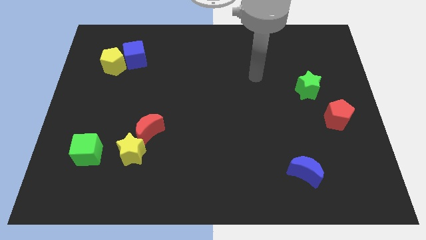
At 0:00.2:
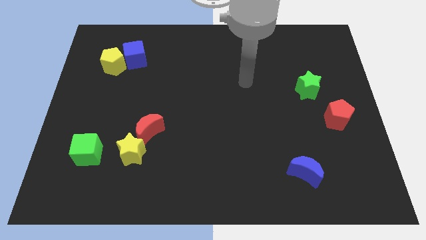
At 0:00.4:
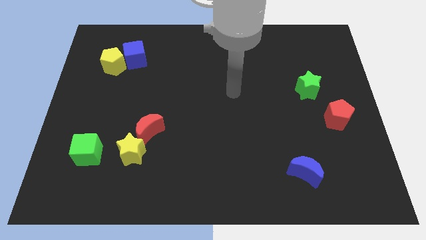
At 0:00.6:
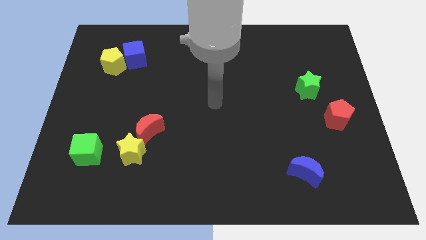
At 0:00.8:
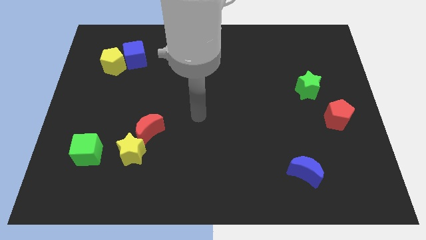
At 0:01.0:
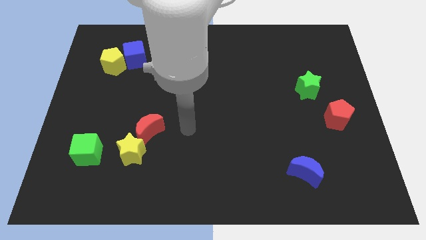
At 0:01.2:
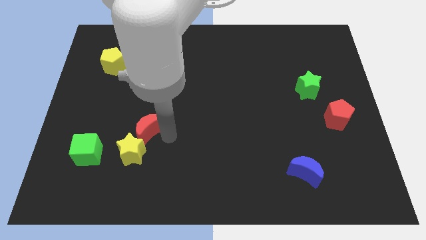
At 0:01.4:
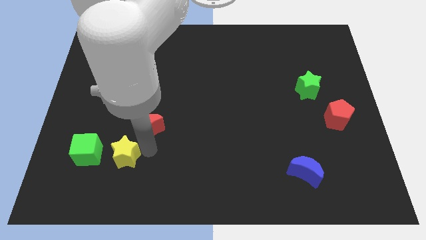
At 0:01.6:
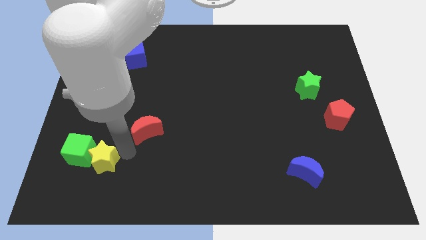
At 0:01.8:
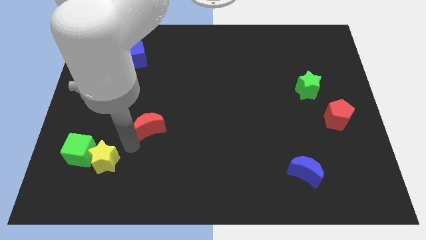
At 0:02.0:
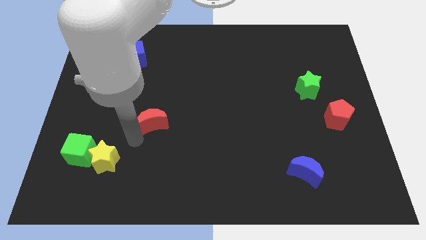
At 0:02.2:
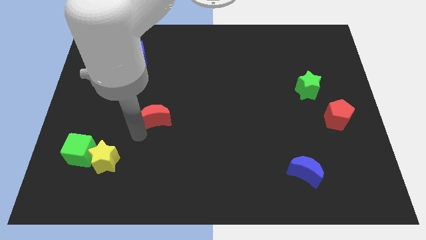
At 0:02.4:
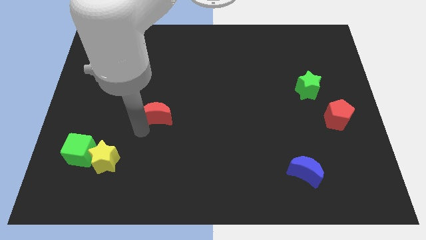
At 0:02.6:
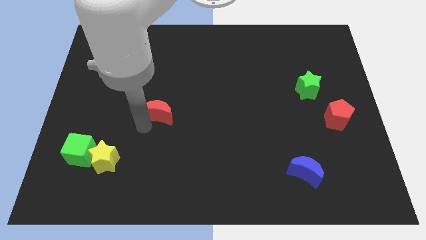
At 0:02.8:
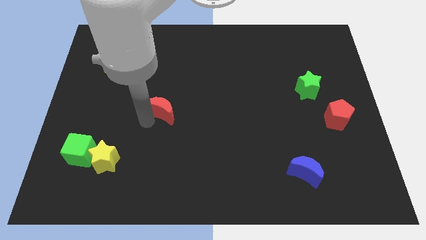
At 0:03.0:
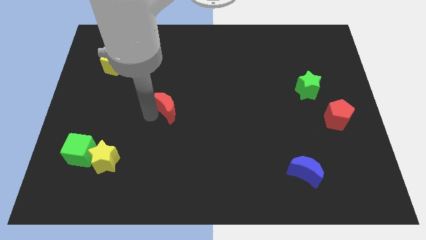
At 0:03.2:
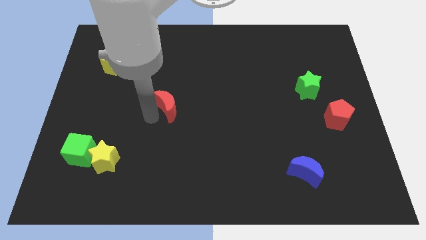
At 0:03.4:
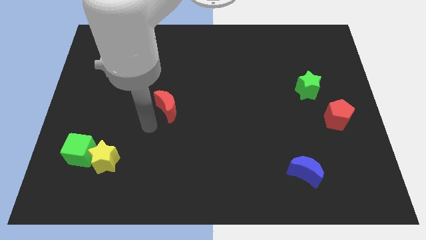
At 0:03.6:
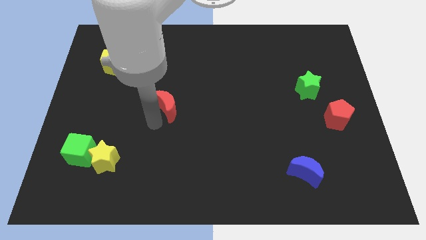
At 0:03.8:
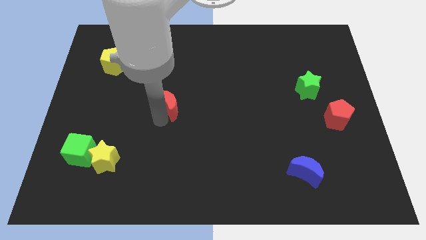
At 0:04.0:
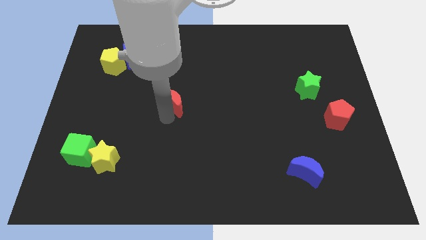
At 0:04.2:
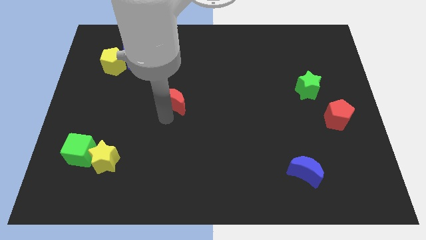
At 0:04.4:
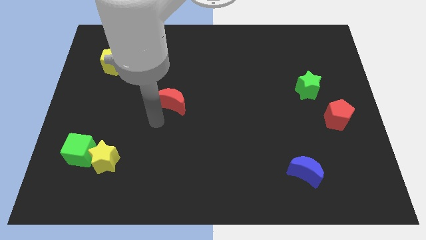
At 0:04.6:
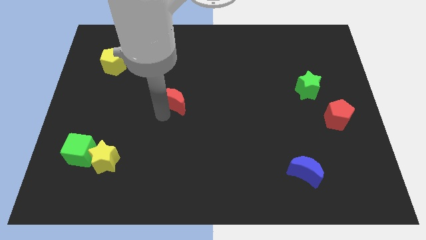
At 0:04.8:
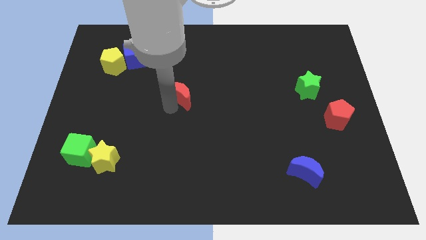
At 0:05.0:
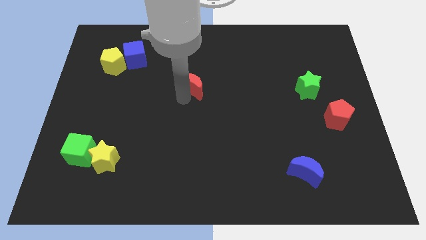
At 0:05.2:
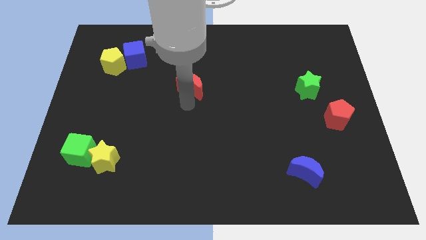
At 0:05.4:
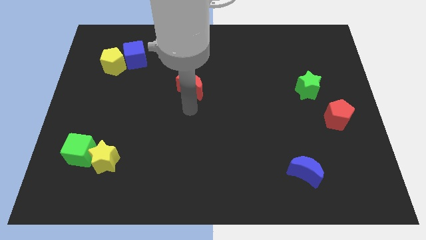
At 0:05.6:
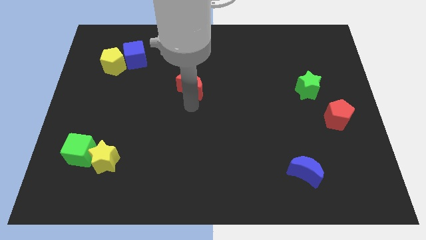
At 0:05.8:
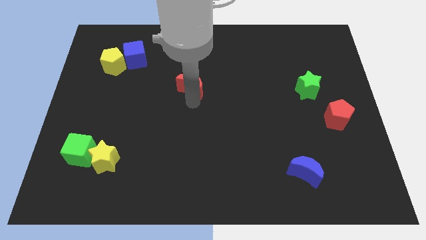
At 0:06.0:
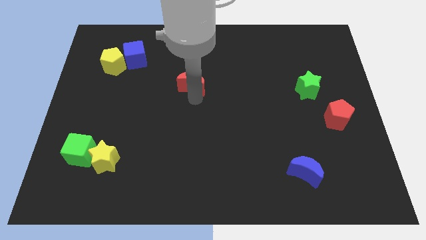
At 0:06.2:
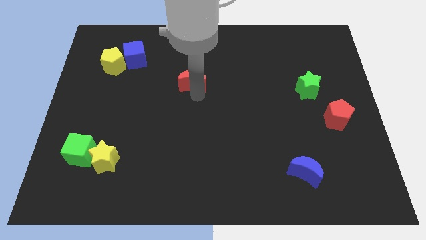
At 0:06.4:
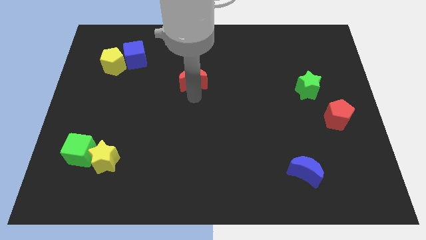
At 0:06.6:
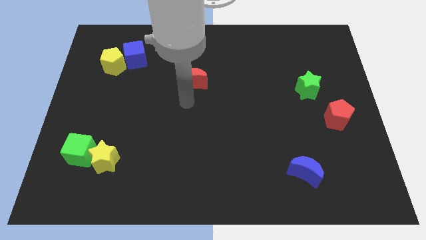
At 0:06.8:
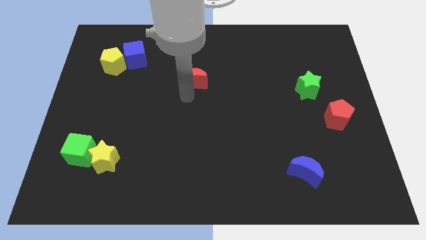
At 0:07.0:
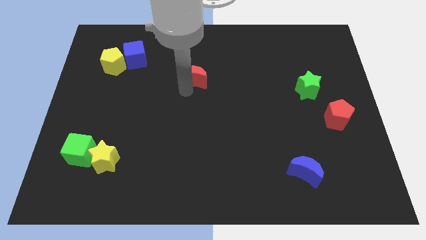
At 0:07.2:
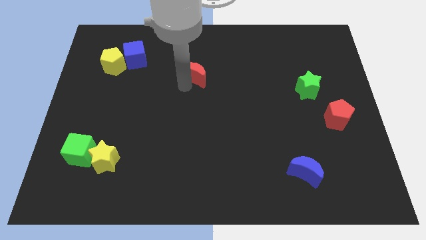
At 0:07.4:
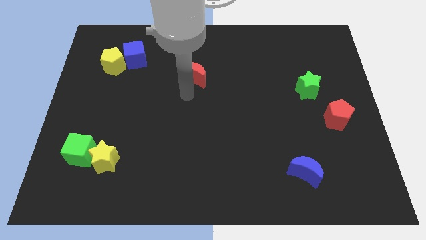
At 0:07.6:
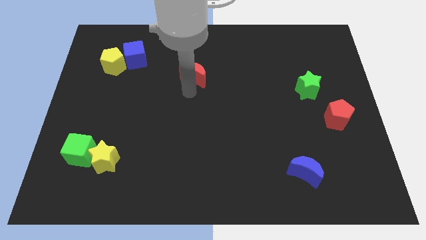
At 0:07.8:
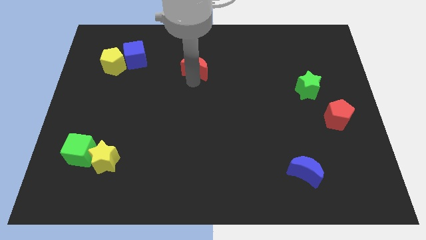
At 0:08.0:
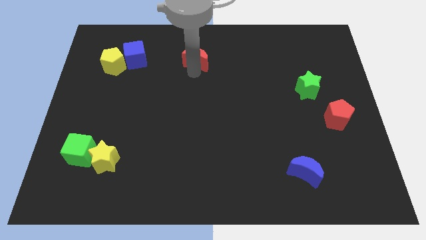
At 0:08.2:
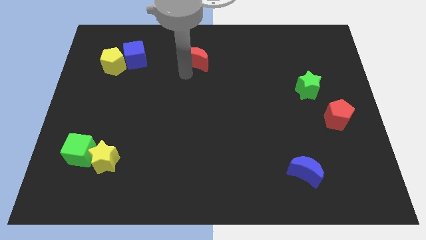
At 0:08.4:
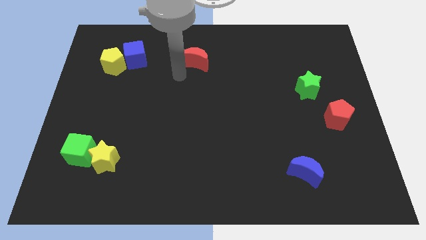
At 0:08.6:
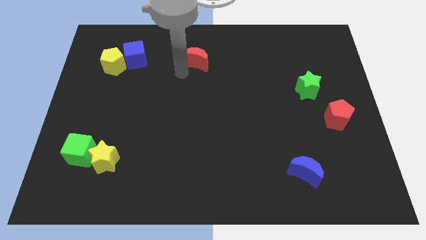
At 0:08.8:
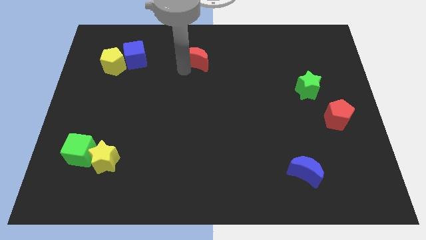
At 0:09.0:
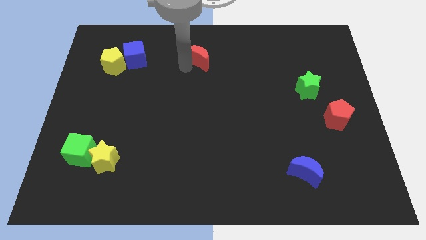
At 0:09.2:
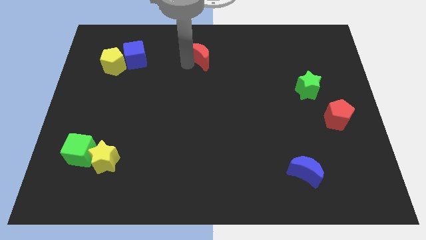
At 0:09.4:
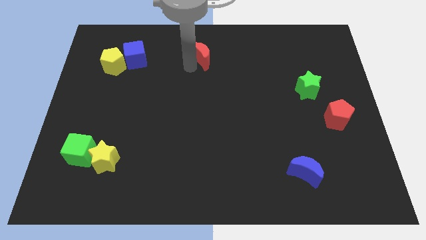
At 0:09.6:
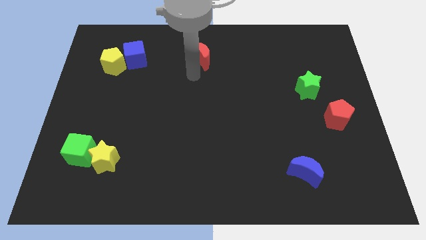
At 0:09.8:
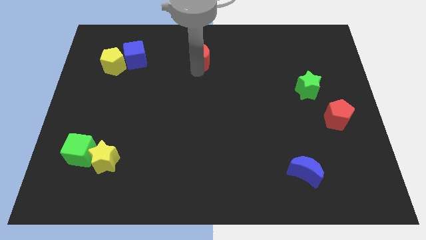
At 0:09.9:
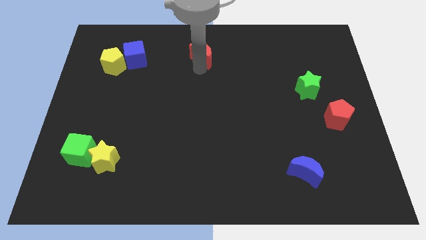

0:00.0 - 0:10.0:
put the red moon to the towards your base

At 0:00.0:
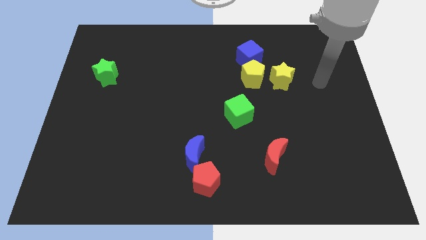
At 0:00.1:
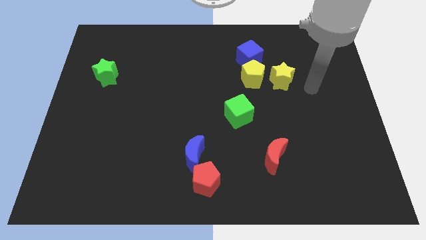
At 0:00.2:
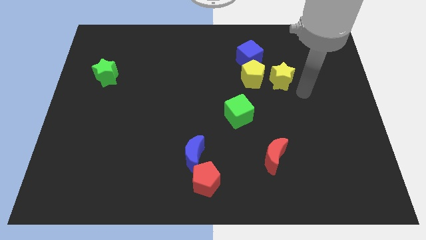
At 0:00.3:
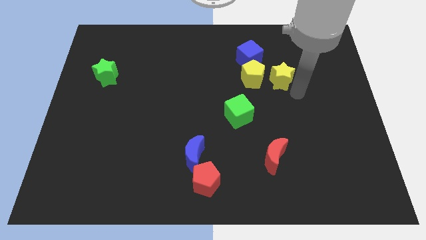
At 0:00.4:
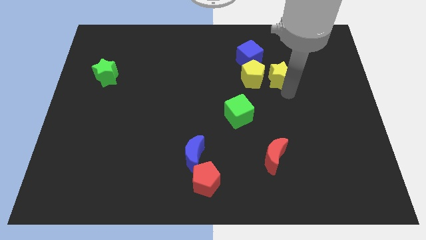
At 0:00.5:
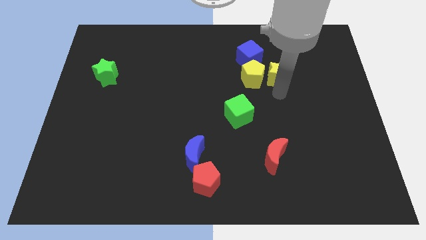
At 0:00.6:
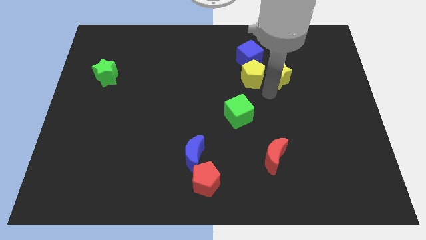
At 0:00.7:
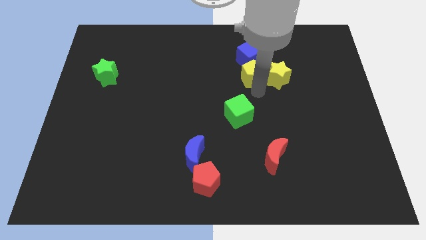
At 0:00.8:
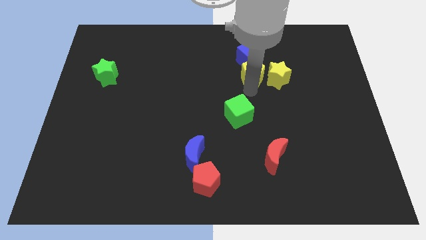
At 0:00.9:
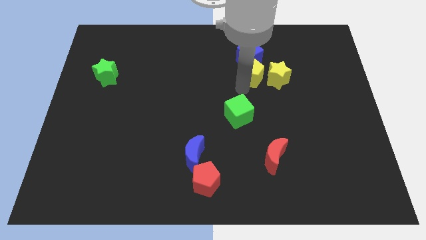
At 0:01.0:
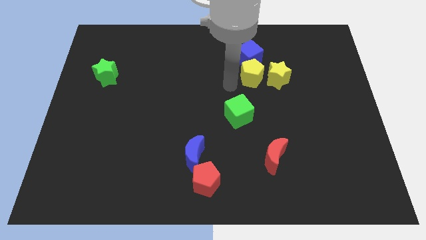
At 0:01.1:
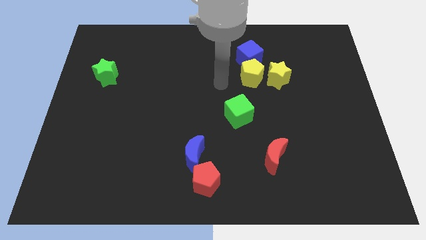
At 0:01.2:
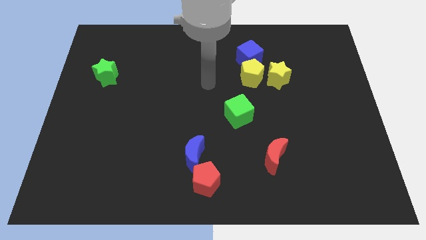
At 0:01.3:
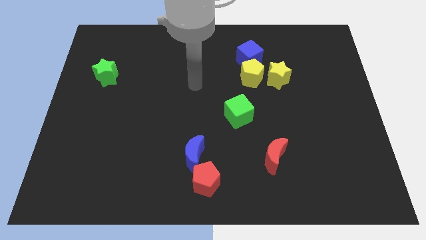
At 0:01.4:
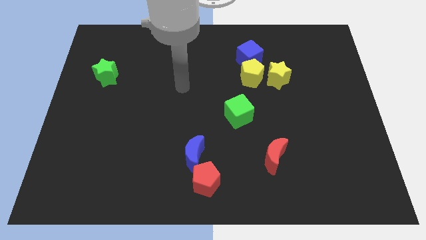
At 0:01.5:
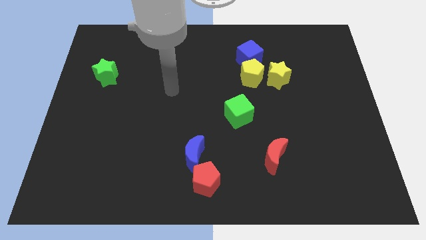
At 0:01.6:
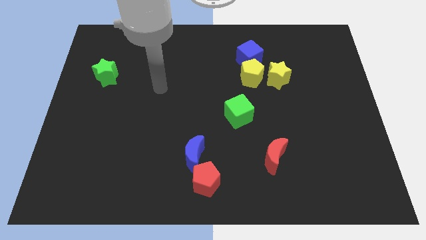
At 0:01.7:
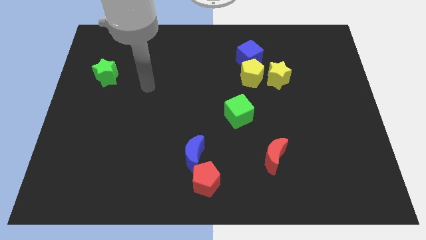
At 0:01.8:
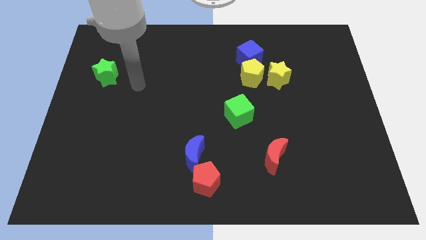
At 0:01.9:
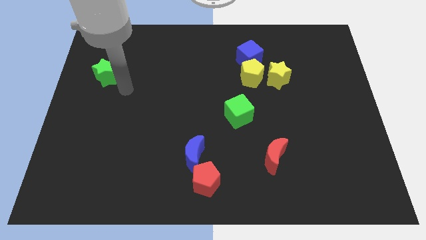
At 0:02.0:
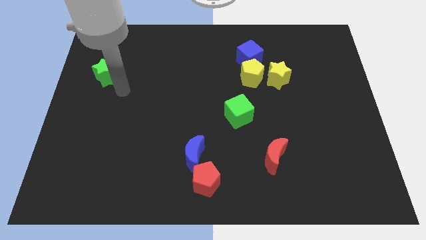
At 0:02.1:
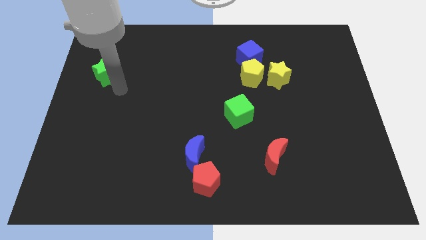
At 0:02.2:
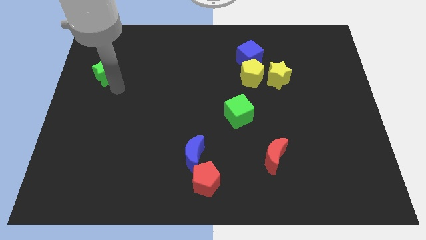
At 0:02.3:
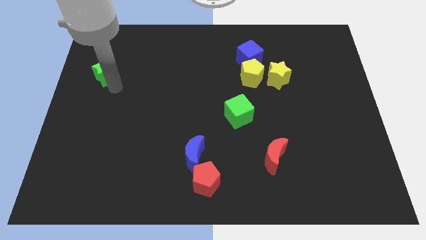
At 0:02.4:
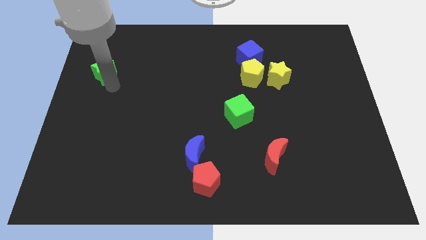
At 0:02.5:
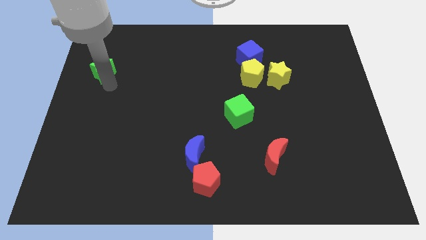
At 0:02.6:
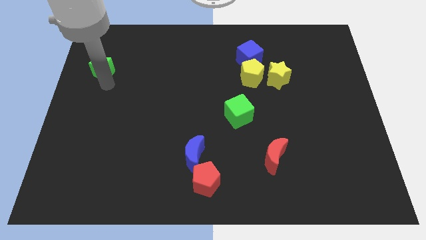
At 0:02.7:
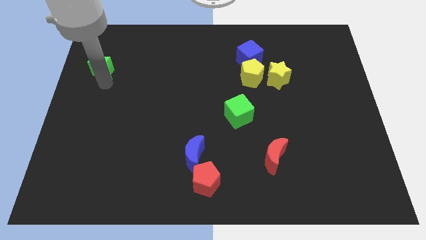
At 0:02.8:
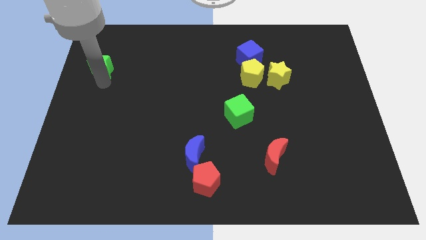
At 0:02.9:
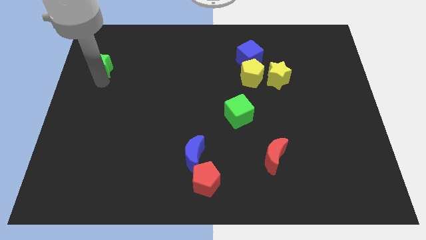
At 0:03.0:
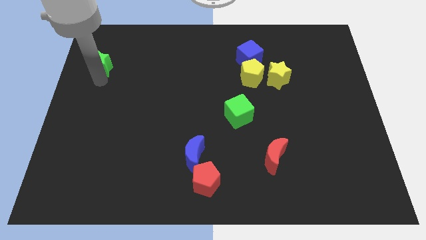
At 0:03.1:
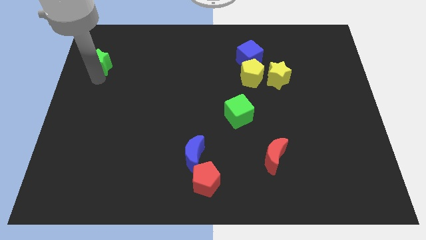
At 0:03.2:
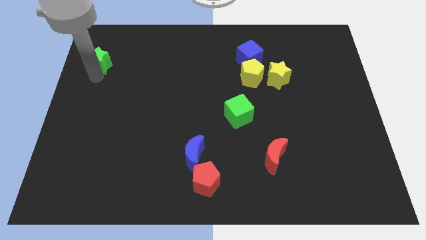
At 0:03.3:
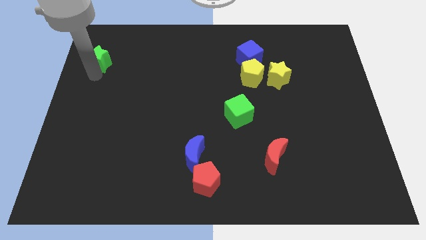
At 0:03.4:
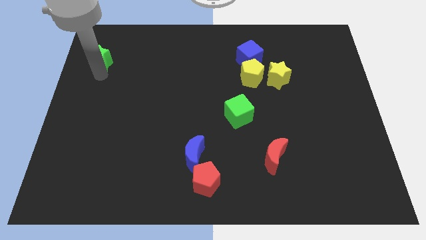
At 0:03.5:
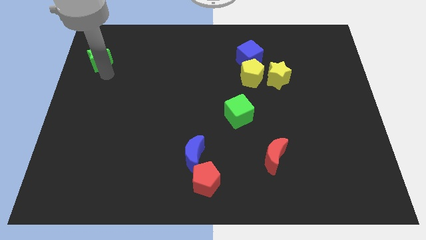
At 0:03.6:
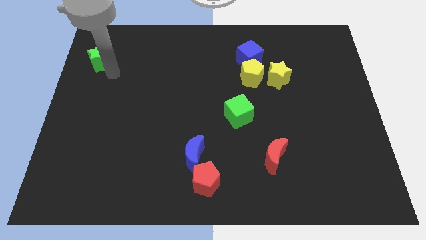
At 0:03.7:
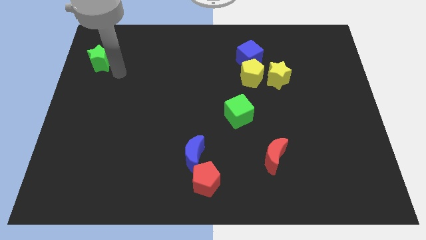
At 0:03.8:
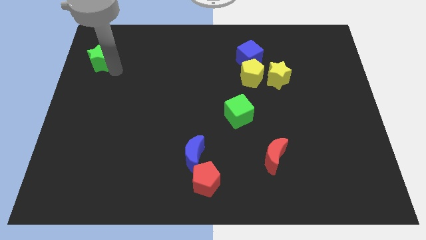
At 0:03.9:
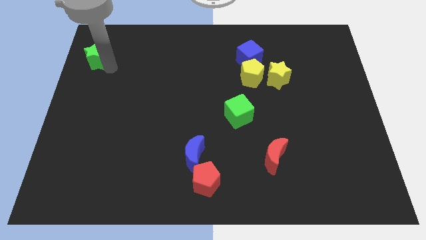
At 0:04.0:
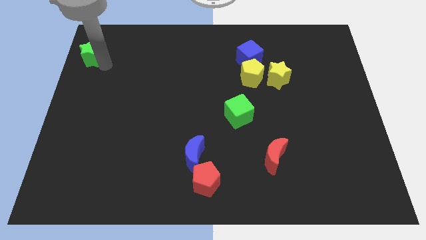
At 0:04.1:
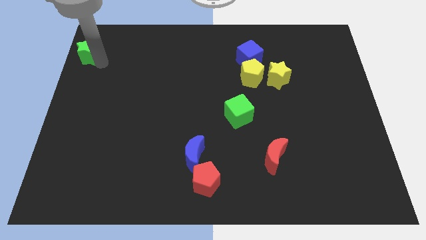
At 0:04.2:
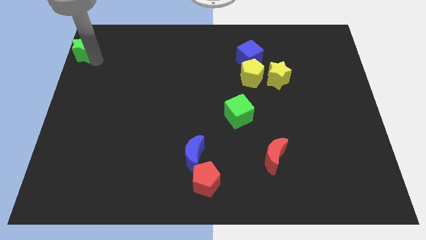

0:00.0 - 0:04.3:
move the green star to the top left
